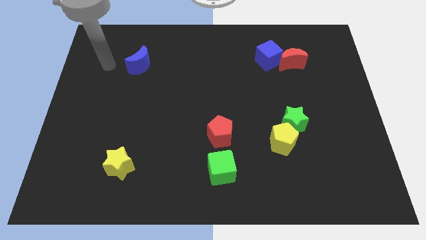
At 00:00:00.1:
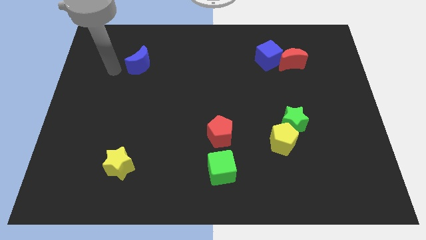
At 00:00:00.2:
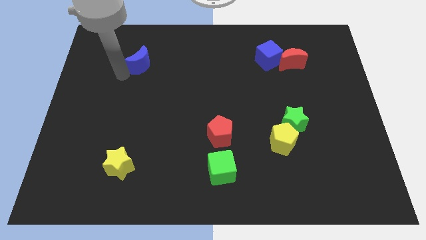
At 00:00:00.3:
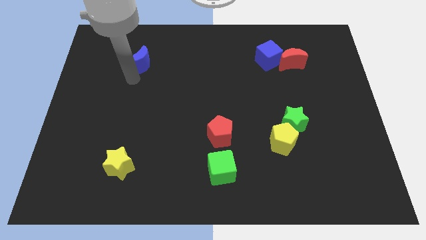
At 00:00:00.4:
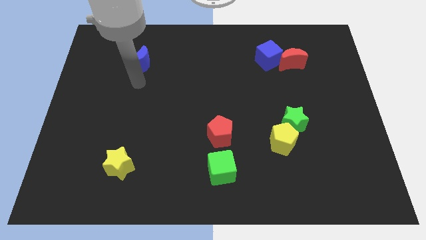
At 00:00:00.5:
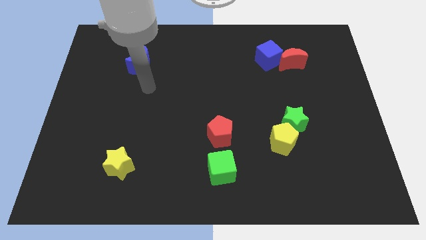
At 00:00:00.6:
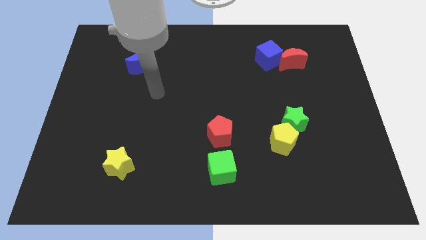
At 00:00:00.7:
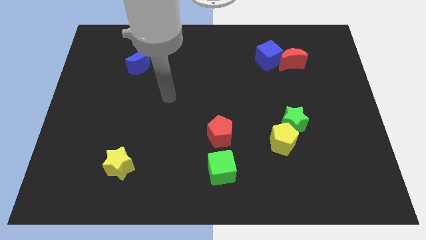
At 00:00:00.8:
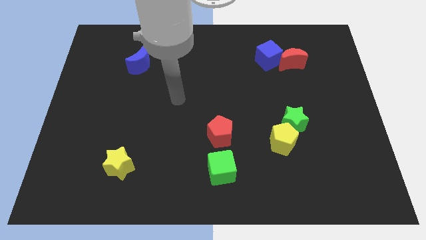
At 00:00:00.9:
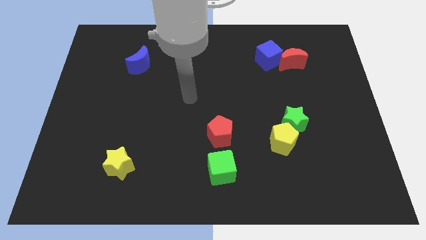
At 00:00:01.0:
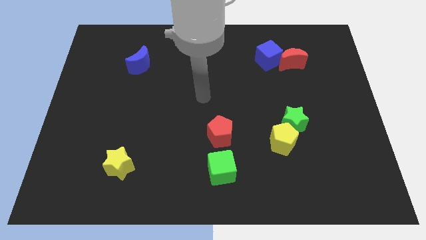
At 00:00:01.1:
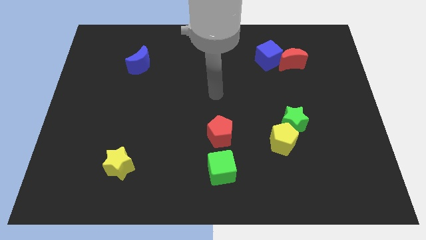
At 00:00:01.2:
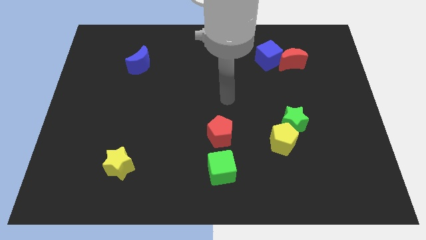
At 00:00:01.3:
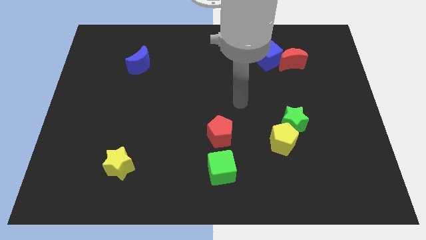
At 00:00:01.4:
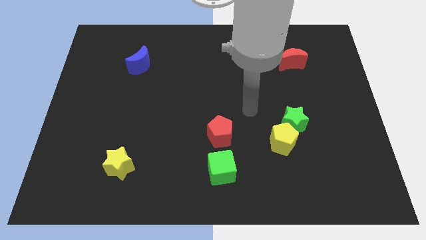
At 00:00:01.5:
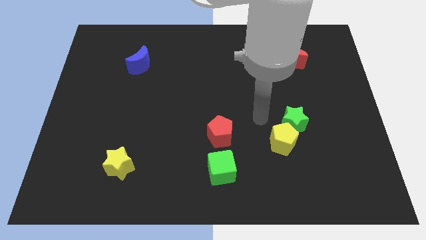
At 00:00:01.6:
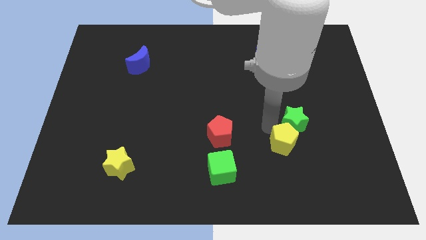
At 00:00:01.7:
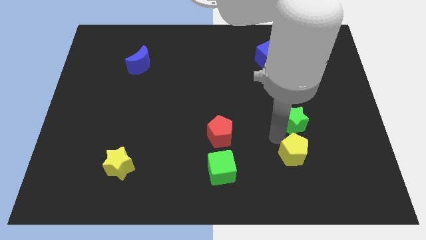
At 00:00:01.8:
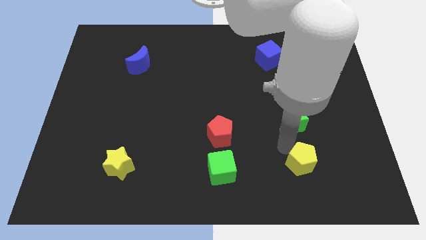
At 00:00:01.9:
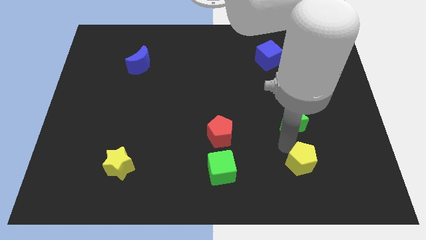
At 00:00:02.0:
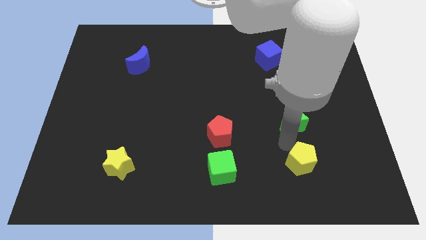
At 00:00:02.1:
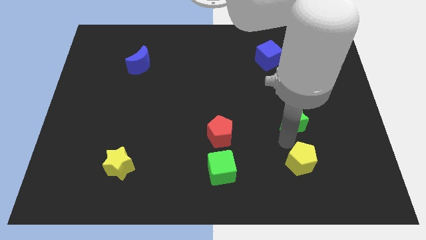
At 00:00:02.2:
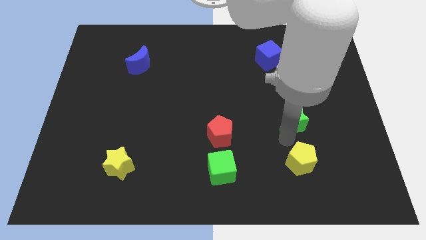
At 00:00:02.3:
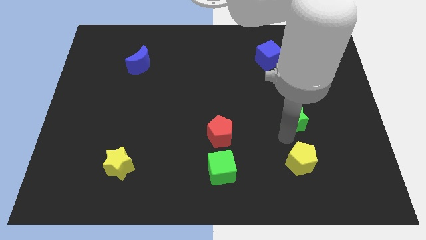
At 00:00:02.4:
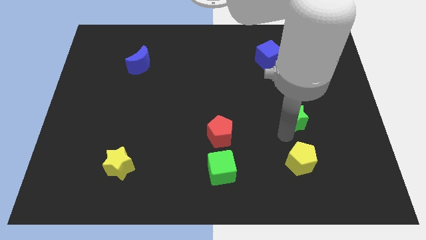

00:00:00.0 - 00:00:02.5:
move the green star away from the yellow pentagon

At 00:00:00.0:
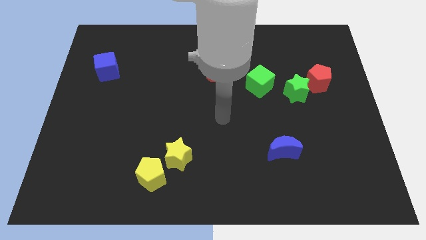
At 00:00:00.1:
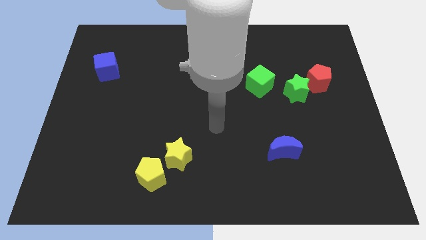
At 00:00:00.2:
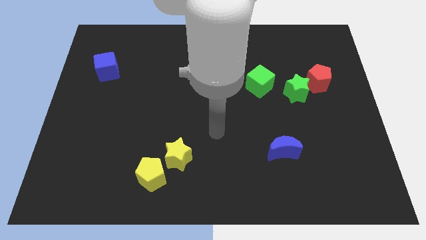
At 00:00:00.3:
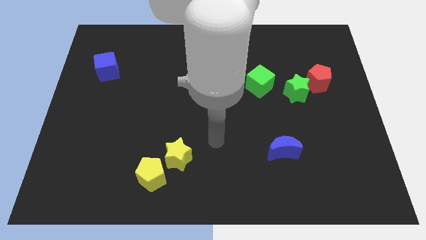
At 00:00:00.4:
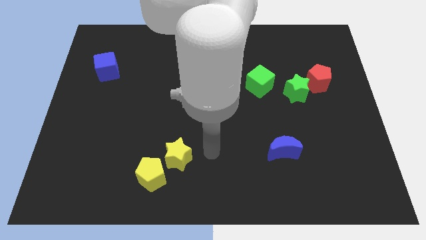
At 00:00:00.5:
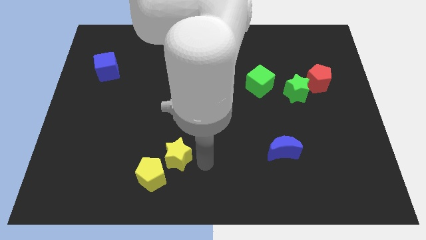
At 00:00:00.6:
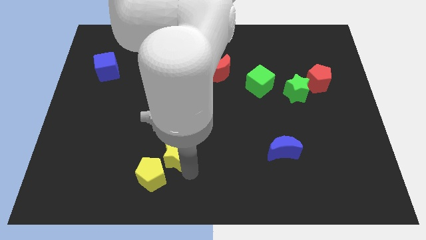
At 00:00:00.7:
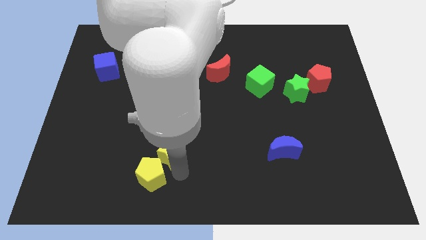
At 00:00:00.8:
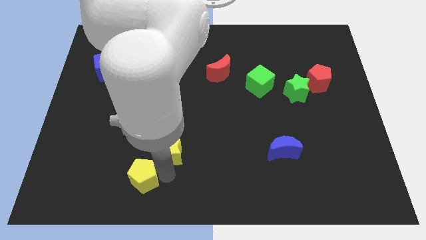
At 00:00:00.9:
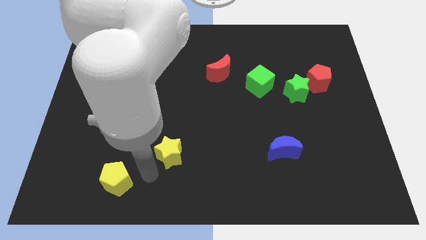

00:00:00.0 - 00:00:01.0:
pull the yellow star apart from the yellow pentagon

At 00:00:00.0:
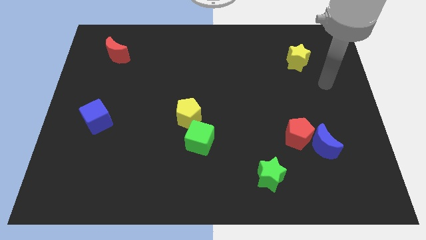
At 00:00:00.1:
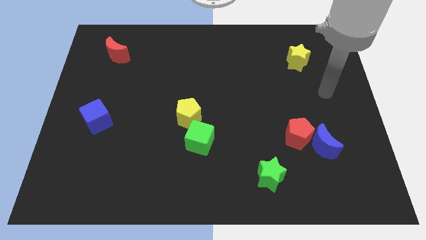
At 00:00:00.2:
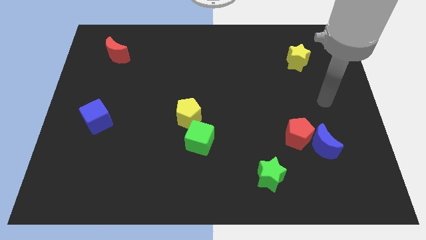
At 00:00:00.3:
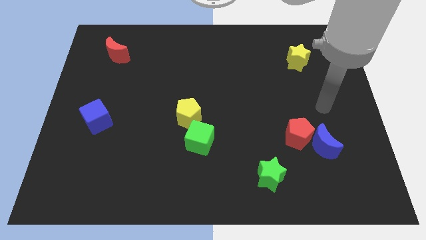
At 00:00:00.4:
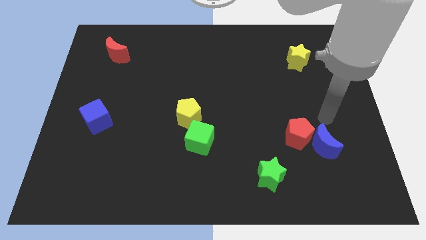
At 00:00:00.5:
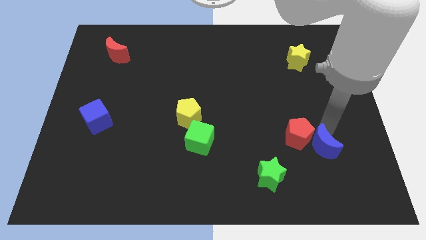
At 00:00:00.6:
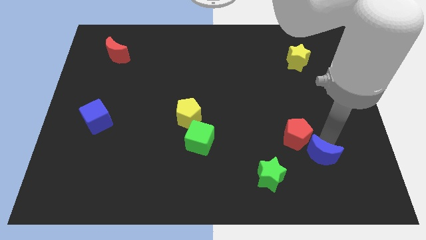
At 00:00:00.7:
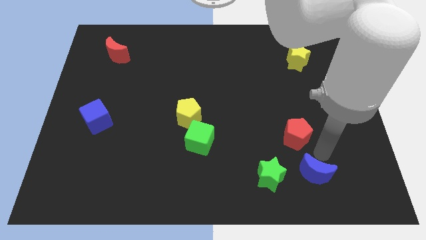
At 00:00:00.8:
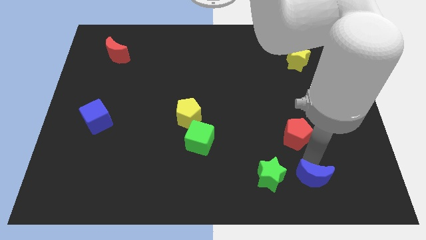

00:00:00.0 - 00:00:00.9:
pull the red pentagon apart from the blue moon

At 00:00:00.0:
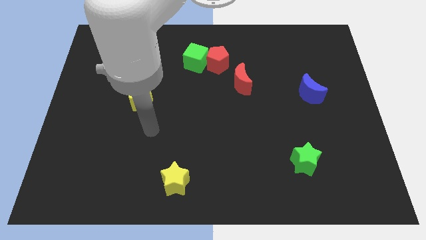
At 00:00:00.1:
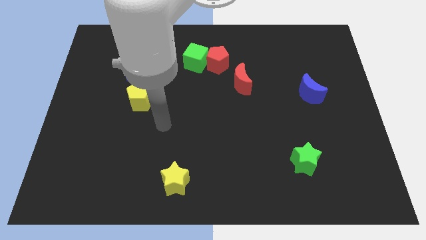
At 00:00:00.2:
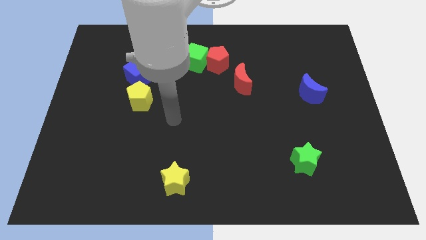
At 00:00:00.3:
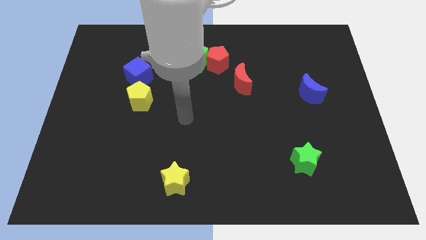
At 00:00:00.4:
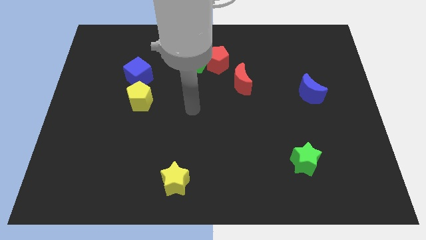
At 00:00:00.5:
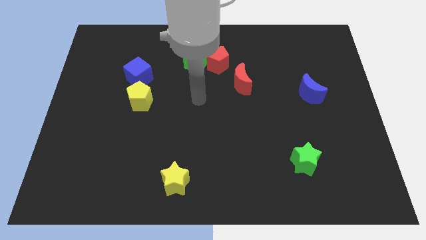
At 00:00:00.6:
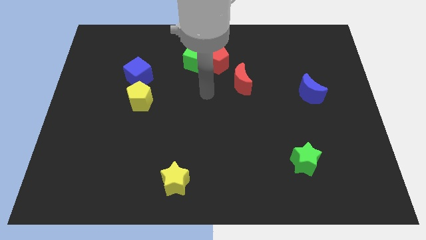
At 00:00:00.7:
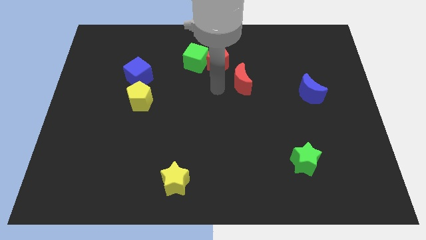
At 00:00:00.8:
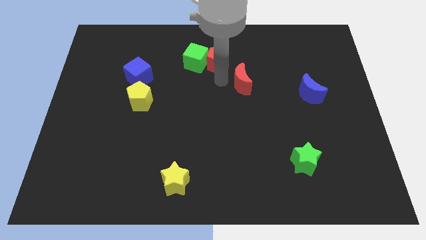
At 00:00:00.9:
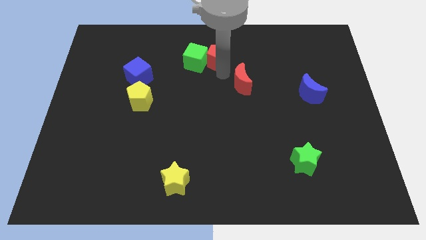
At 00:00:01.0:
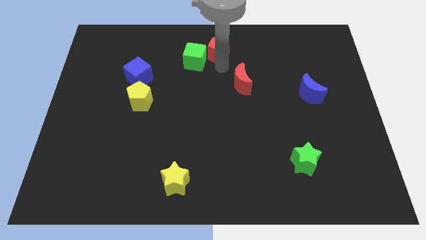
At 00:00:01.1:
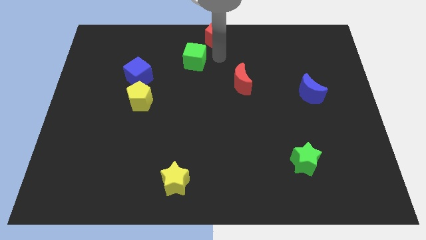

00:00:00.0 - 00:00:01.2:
separate the green cube from the red pentagon

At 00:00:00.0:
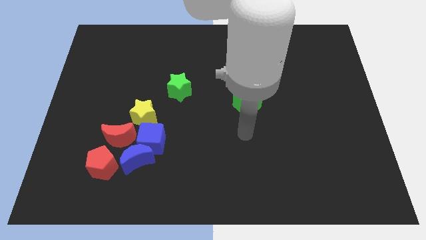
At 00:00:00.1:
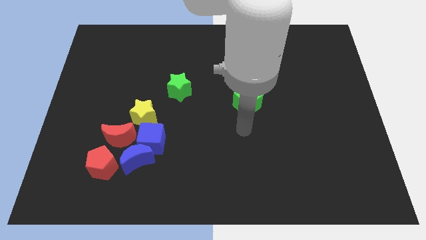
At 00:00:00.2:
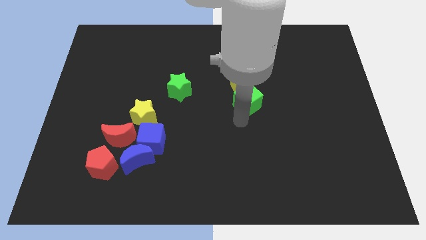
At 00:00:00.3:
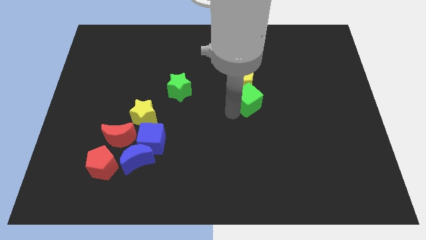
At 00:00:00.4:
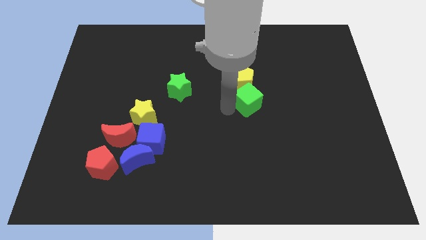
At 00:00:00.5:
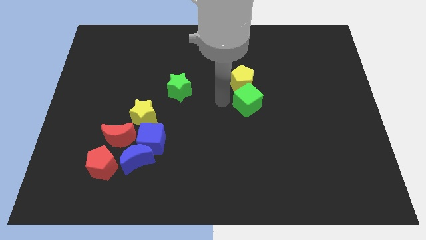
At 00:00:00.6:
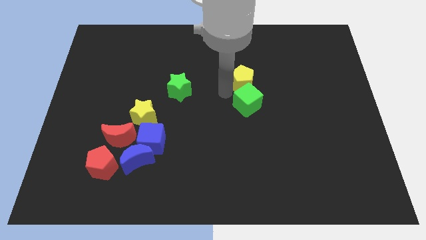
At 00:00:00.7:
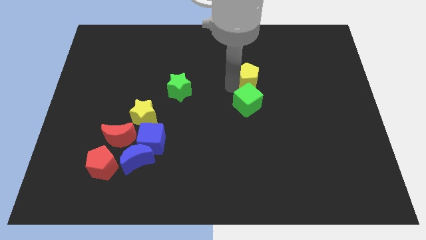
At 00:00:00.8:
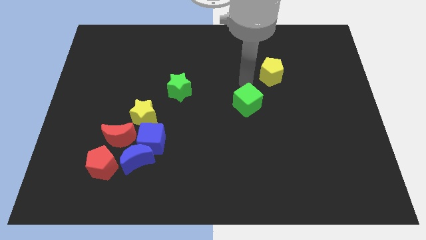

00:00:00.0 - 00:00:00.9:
move the green cube away from the yellow pentagon

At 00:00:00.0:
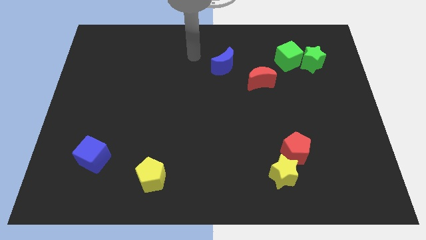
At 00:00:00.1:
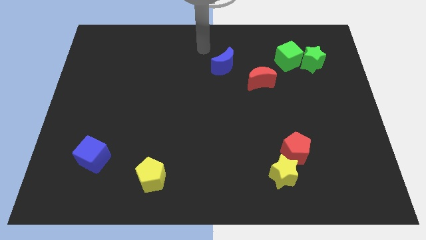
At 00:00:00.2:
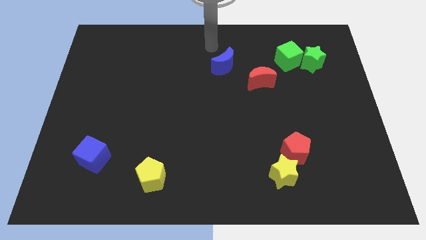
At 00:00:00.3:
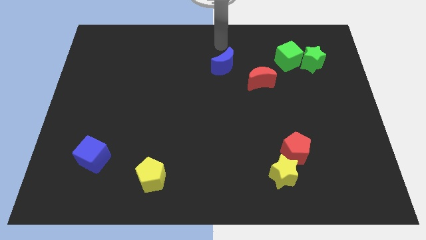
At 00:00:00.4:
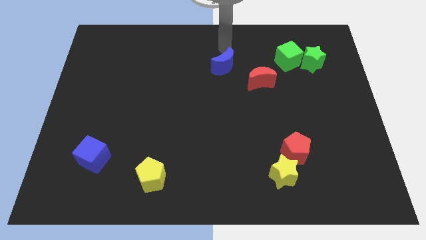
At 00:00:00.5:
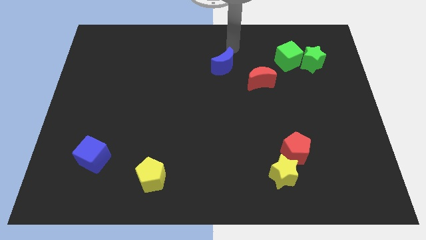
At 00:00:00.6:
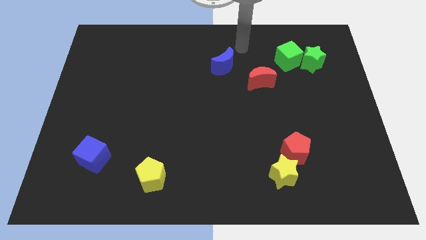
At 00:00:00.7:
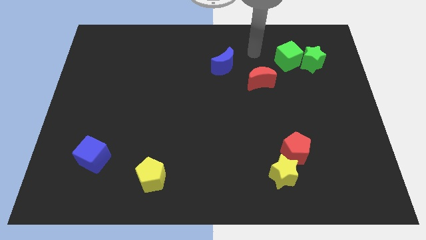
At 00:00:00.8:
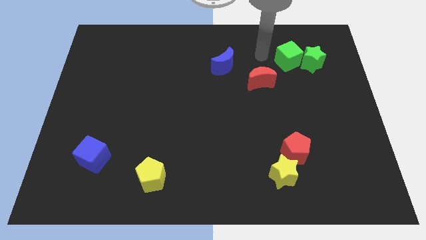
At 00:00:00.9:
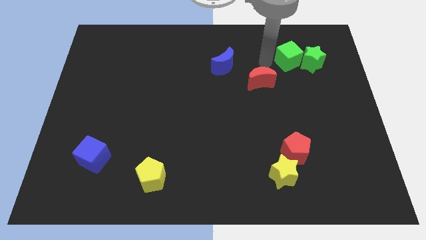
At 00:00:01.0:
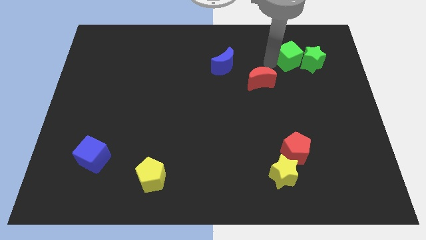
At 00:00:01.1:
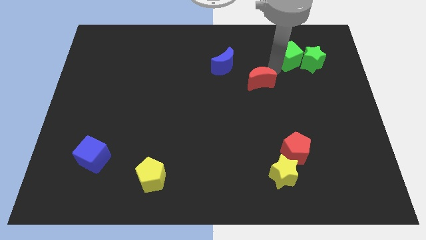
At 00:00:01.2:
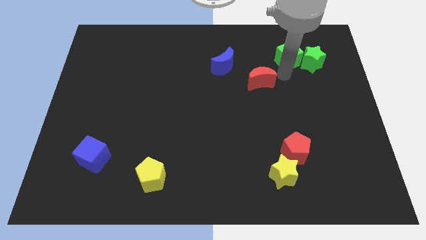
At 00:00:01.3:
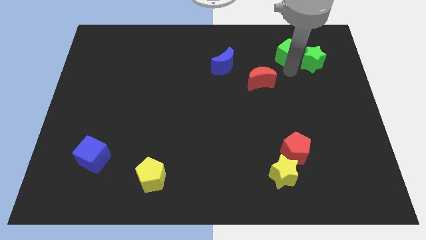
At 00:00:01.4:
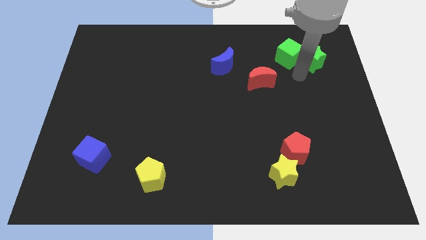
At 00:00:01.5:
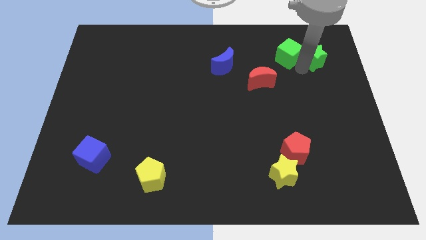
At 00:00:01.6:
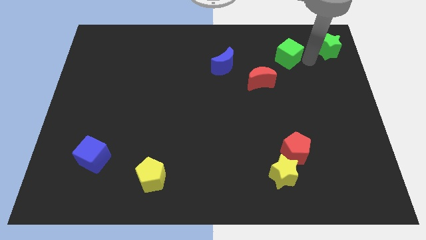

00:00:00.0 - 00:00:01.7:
move the green cube away from the green star

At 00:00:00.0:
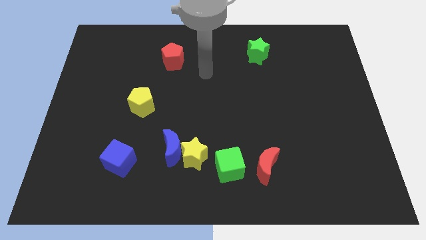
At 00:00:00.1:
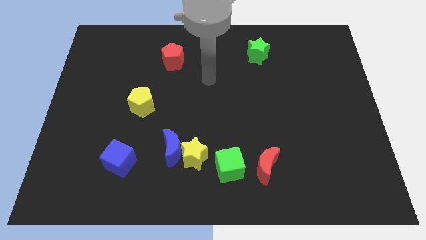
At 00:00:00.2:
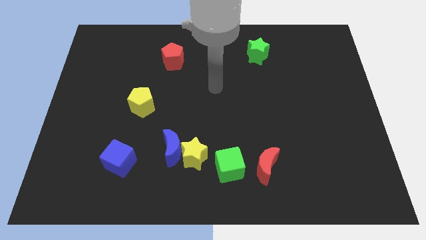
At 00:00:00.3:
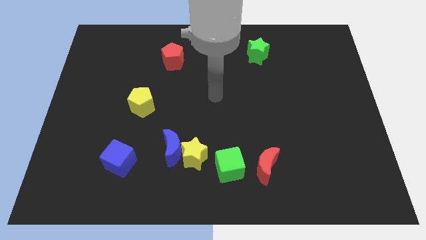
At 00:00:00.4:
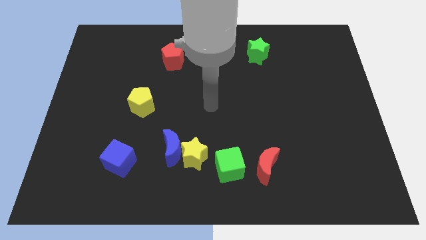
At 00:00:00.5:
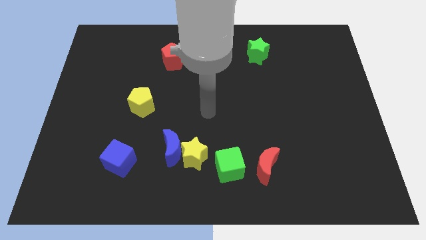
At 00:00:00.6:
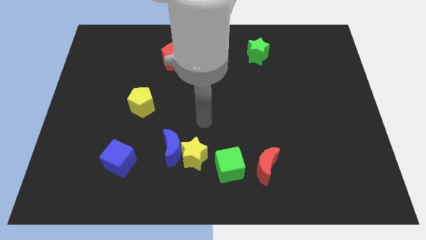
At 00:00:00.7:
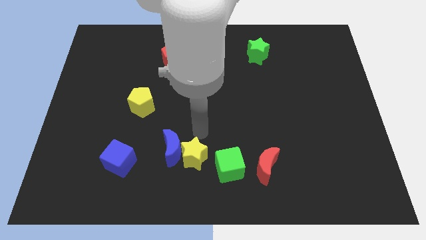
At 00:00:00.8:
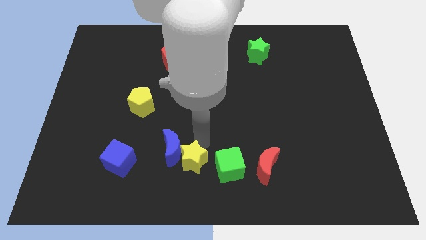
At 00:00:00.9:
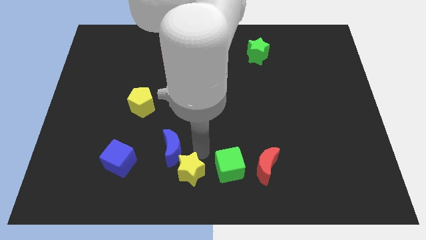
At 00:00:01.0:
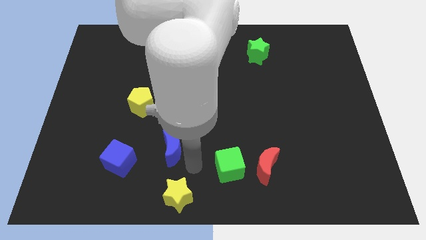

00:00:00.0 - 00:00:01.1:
separate the blue moon from the yellow star
